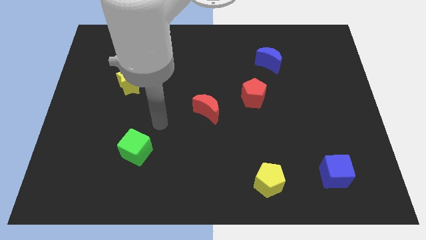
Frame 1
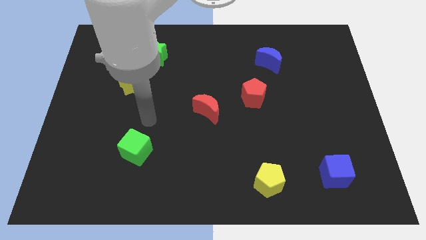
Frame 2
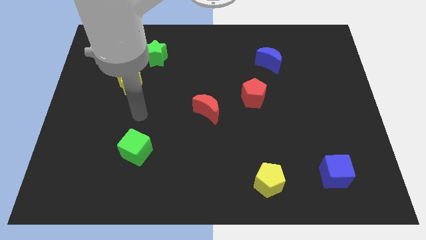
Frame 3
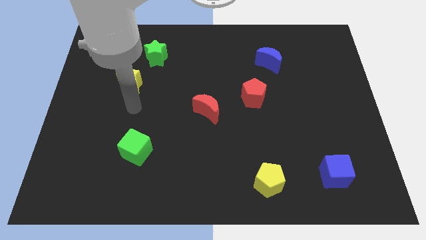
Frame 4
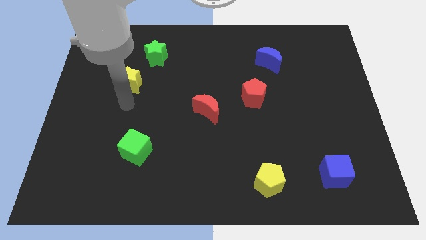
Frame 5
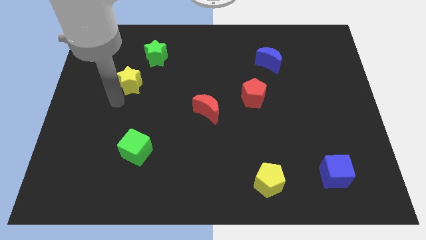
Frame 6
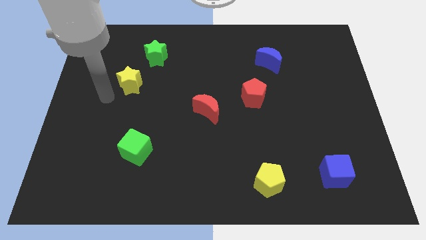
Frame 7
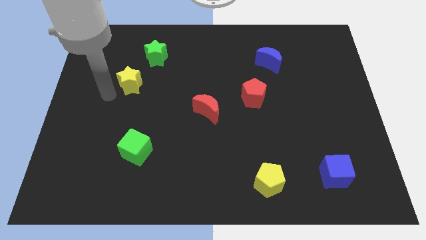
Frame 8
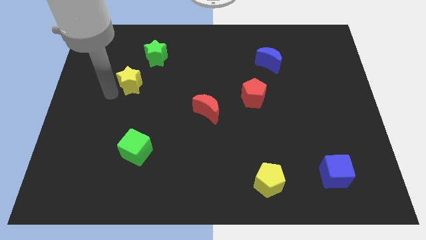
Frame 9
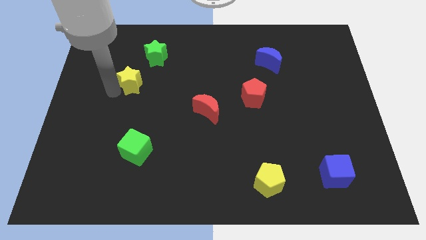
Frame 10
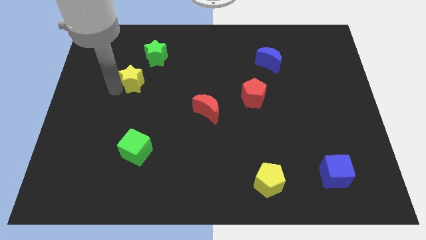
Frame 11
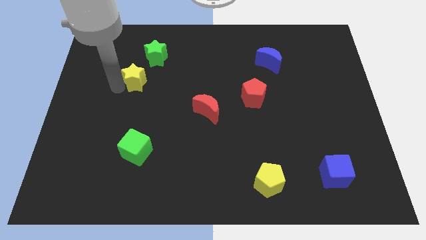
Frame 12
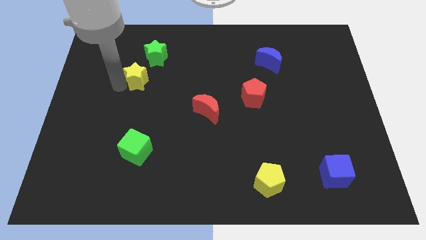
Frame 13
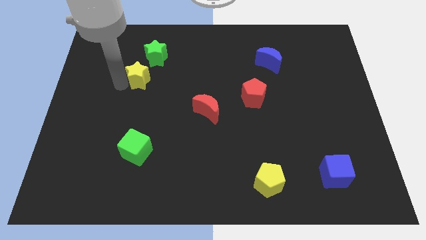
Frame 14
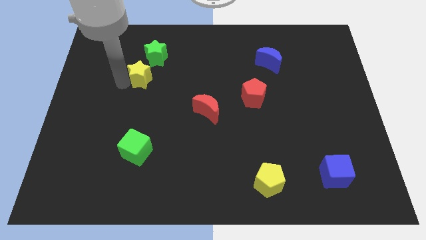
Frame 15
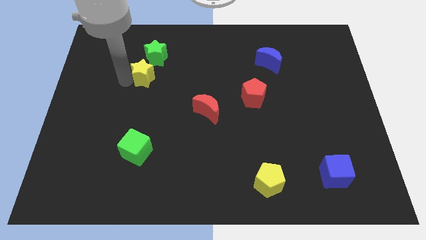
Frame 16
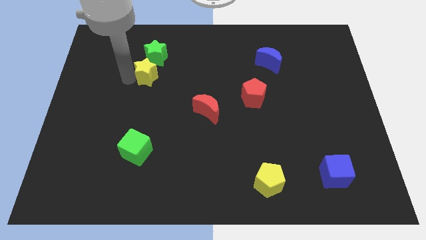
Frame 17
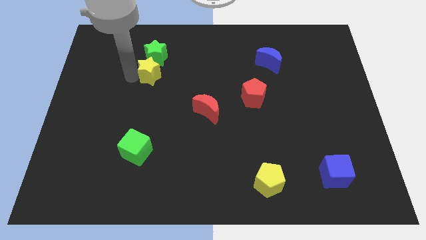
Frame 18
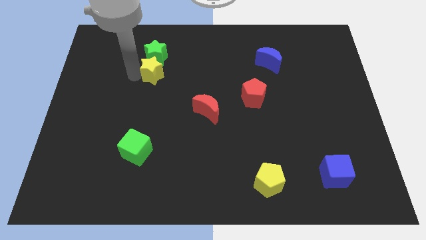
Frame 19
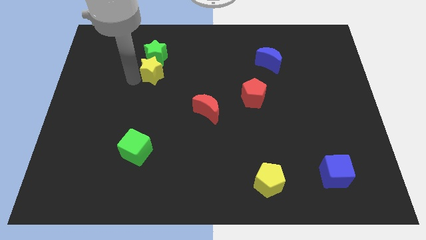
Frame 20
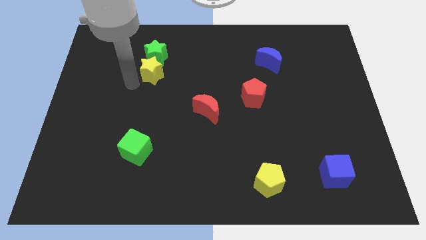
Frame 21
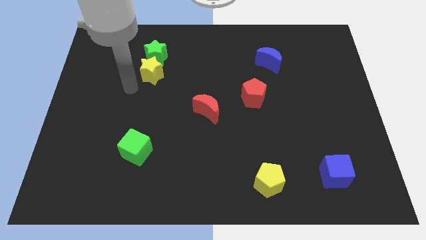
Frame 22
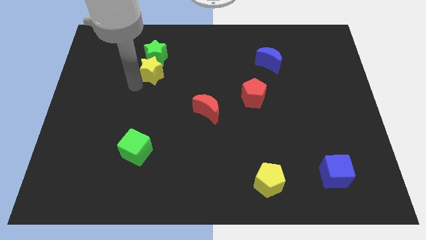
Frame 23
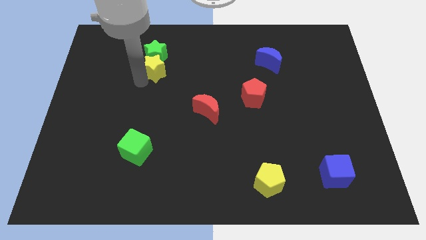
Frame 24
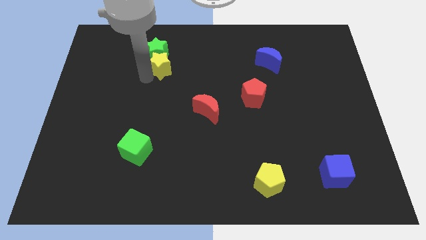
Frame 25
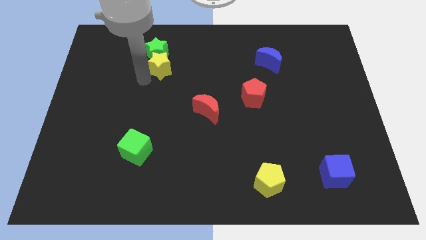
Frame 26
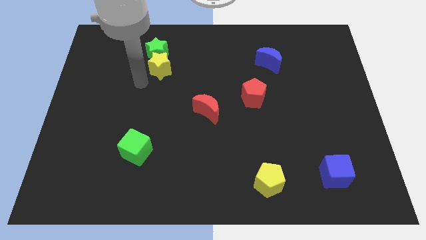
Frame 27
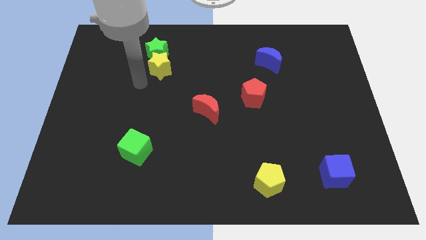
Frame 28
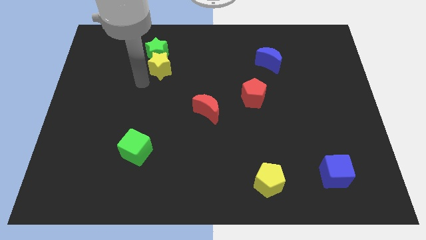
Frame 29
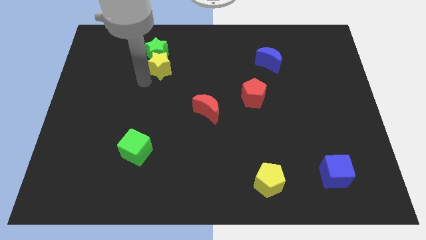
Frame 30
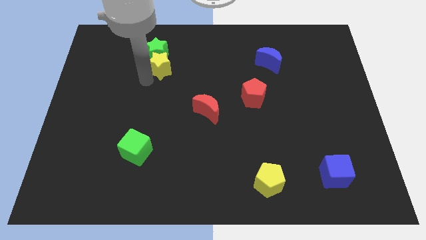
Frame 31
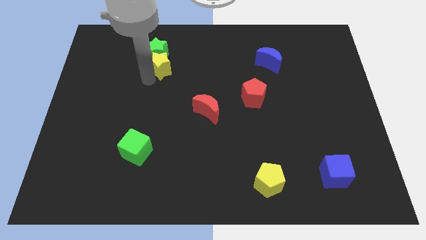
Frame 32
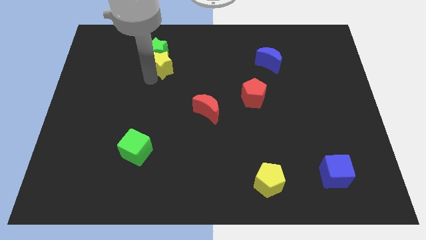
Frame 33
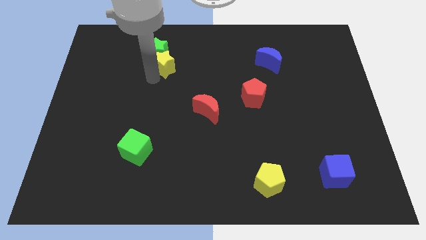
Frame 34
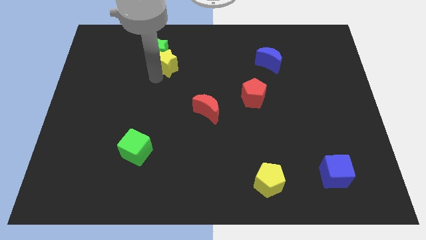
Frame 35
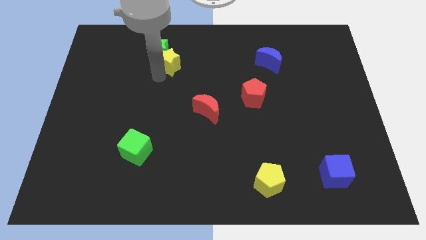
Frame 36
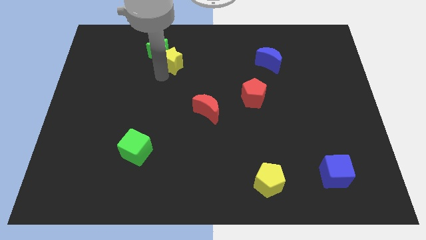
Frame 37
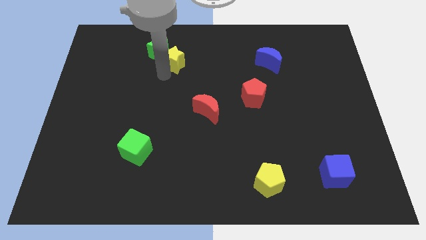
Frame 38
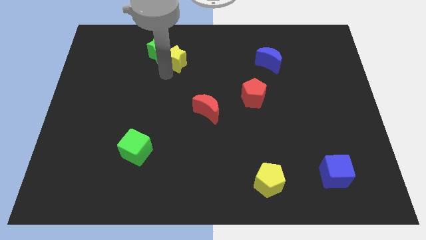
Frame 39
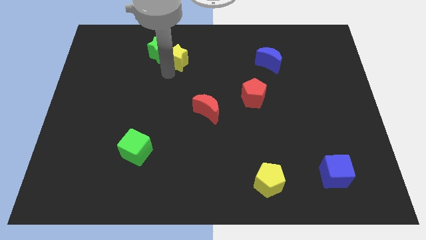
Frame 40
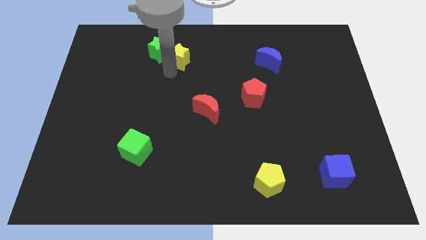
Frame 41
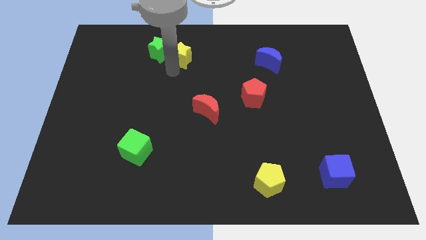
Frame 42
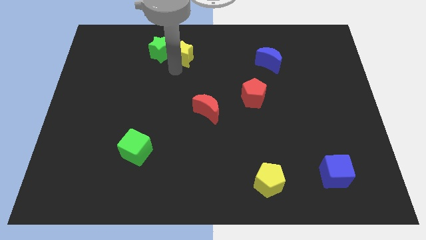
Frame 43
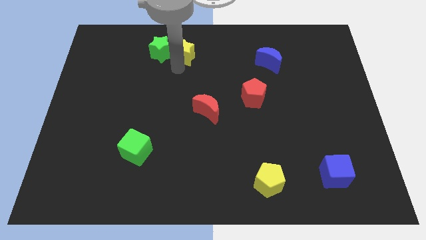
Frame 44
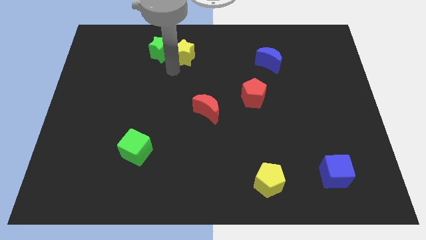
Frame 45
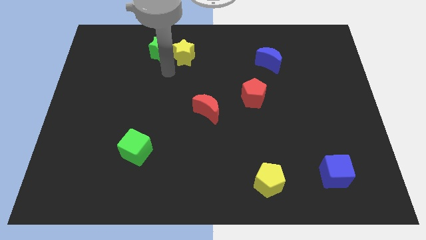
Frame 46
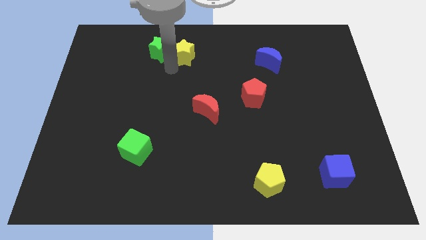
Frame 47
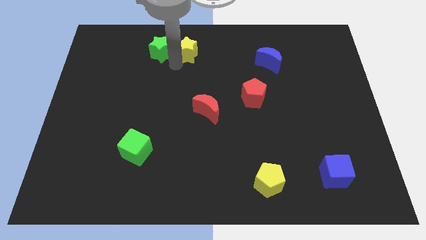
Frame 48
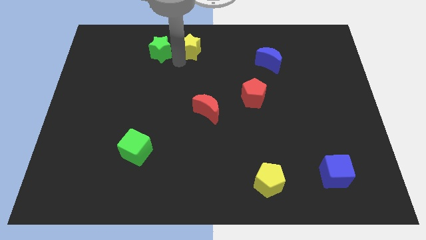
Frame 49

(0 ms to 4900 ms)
slide the yellow star to the top side

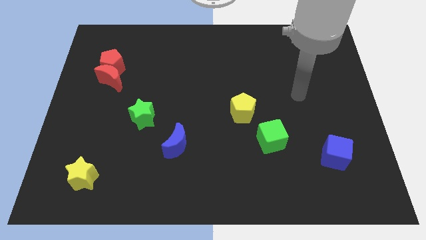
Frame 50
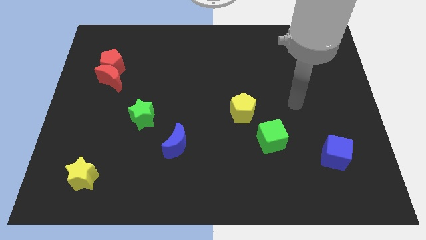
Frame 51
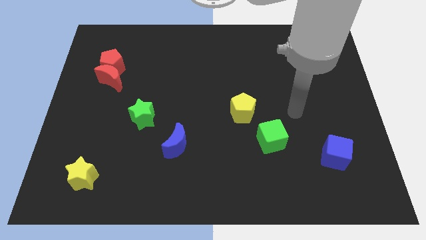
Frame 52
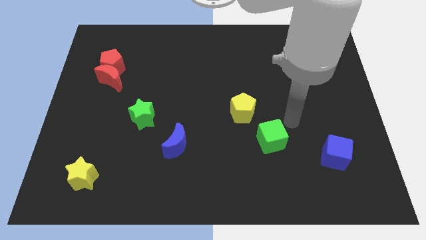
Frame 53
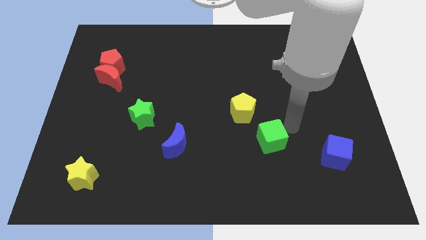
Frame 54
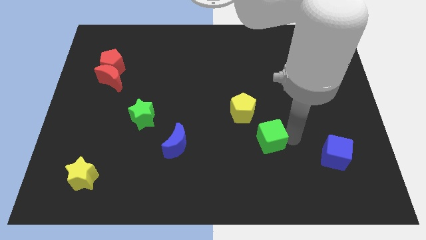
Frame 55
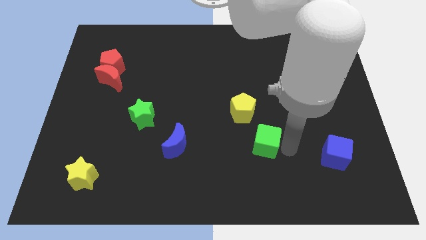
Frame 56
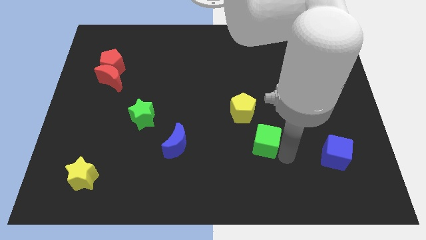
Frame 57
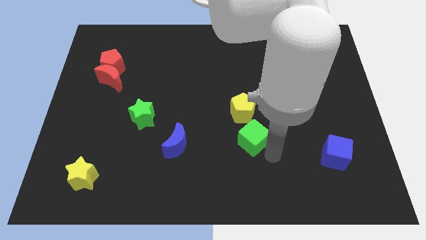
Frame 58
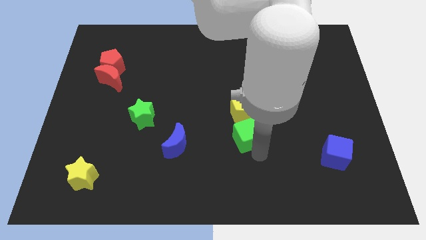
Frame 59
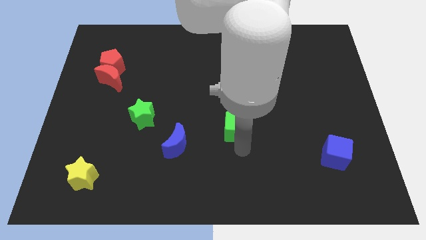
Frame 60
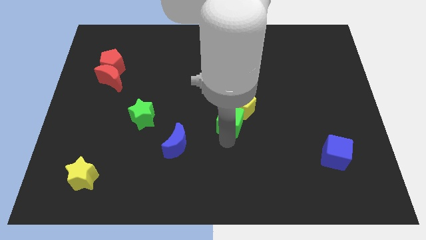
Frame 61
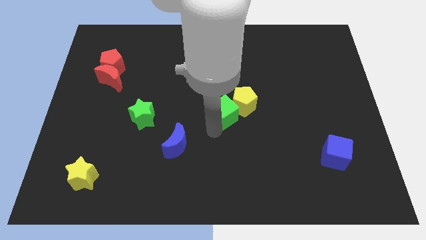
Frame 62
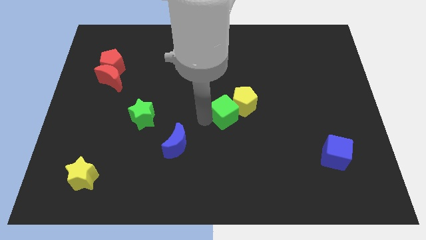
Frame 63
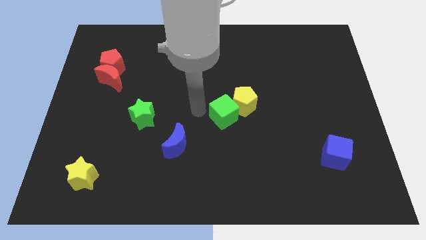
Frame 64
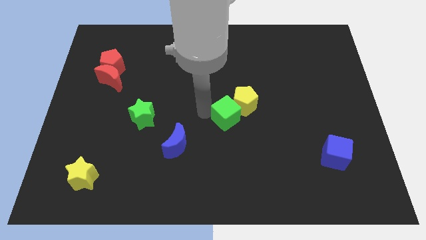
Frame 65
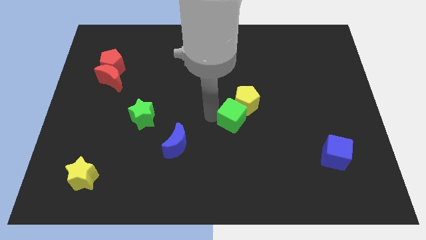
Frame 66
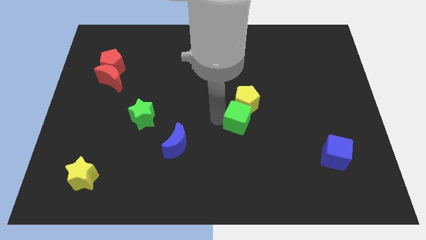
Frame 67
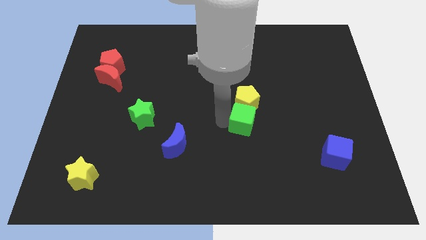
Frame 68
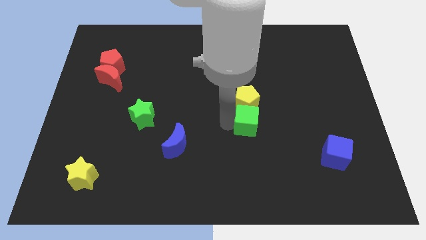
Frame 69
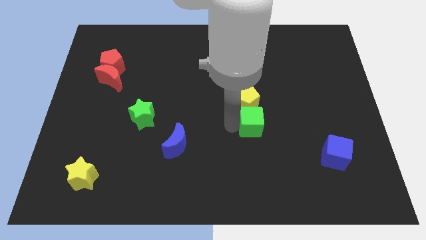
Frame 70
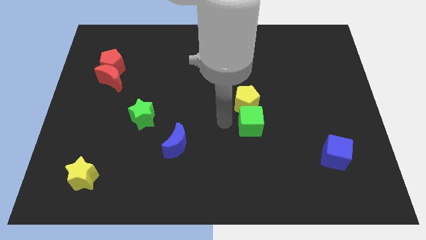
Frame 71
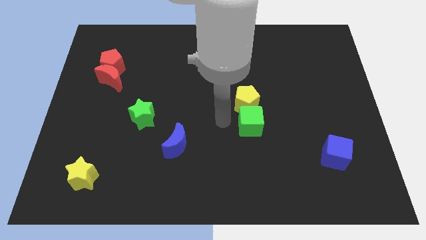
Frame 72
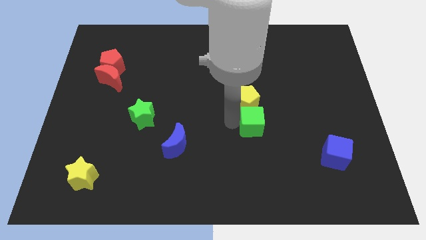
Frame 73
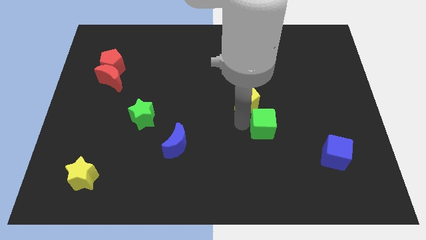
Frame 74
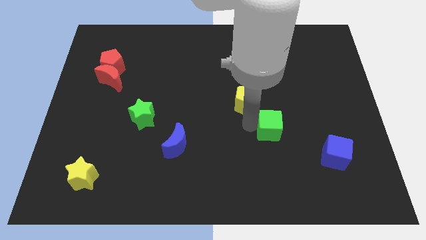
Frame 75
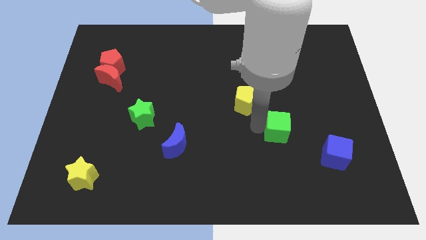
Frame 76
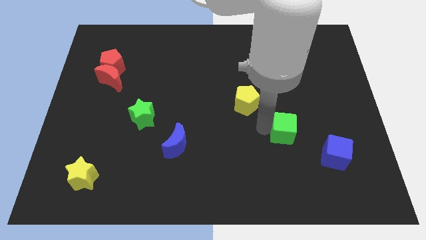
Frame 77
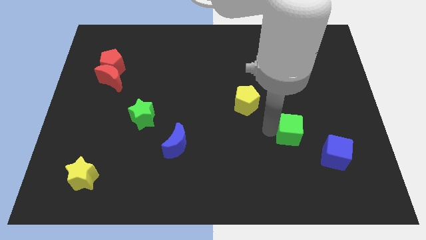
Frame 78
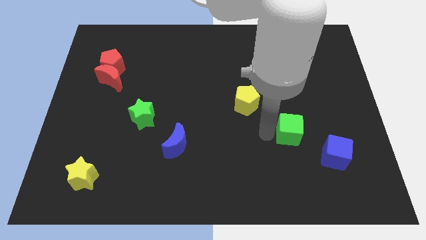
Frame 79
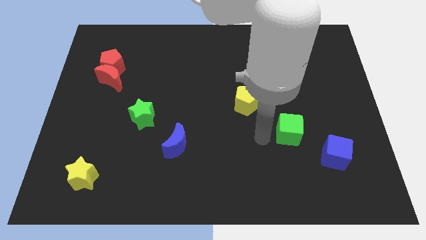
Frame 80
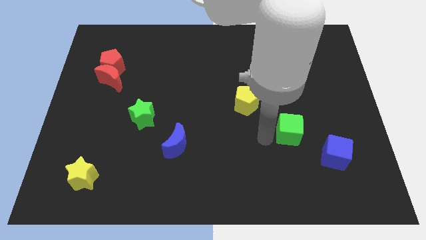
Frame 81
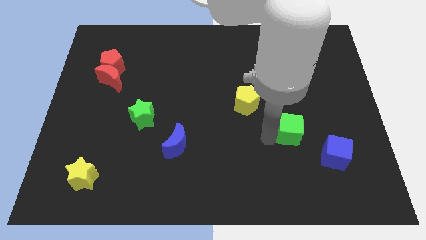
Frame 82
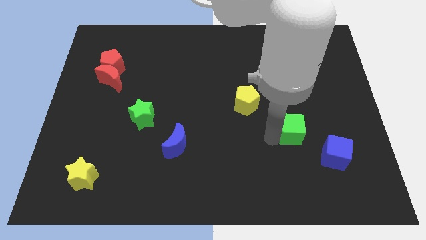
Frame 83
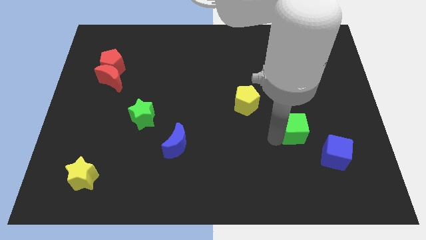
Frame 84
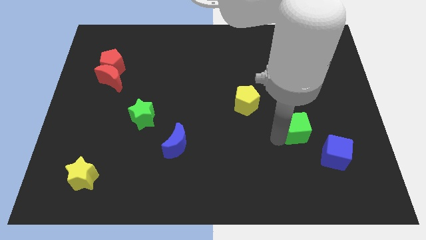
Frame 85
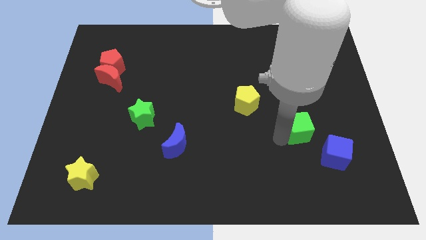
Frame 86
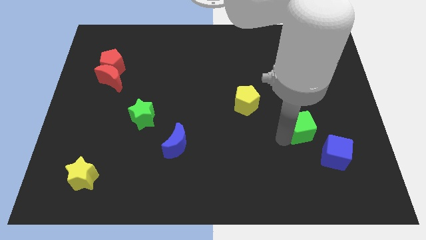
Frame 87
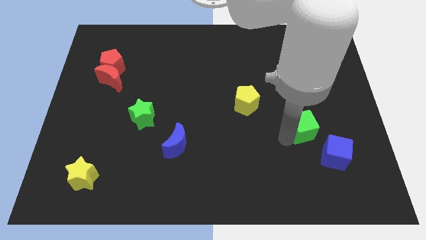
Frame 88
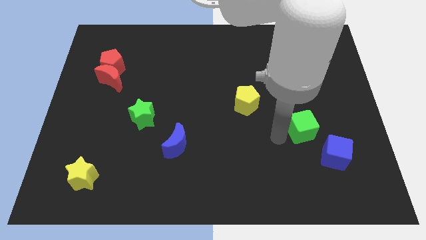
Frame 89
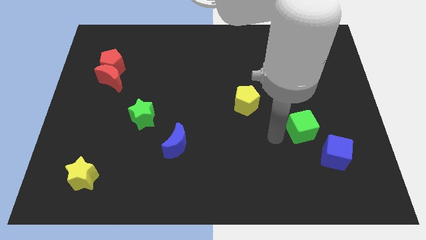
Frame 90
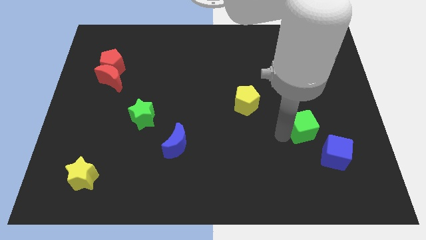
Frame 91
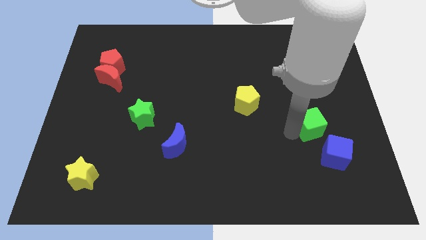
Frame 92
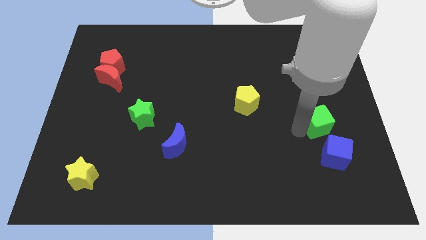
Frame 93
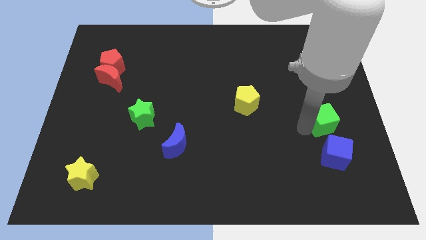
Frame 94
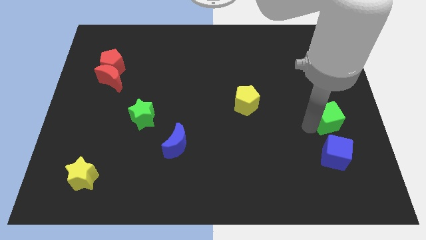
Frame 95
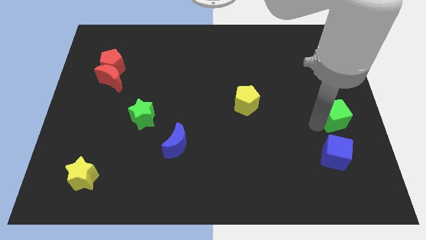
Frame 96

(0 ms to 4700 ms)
move the green cube to the right side of the board
